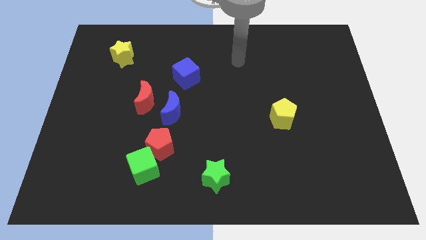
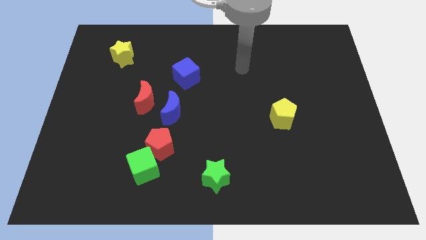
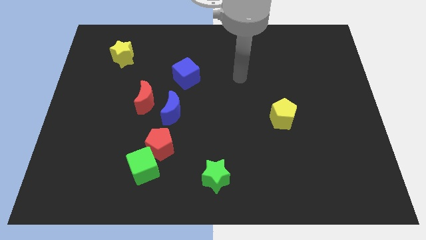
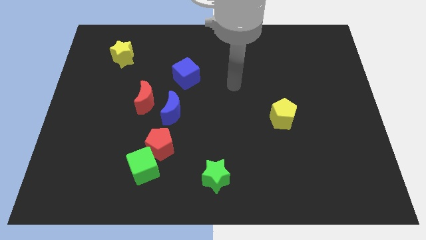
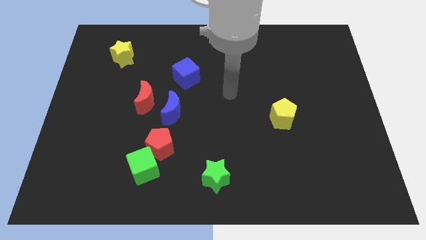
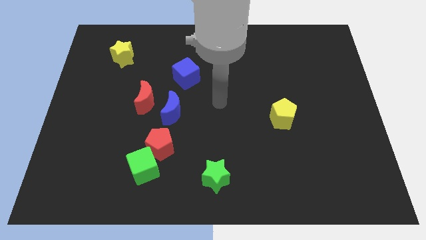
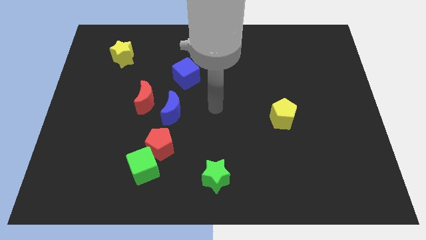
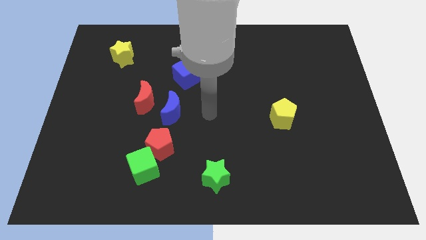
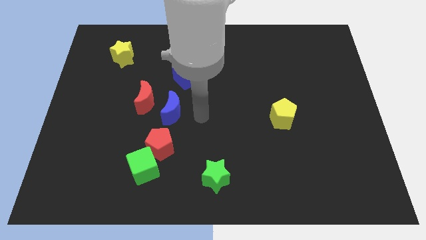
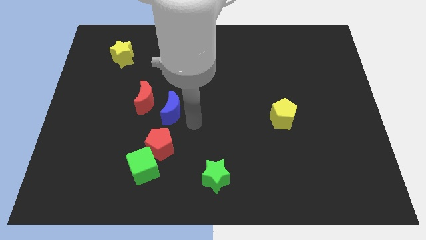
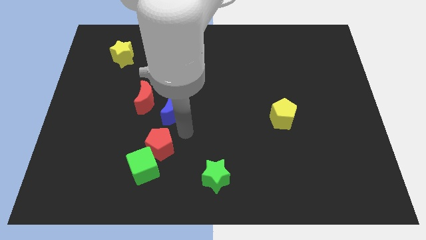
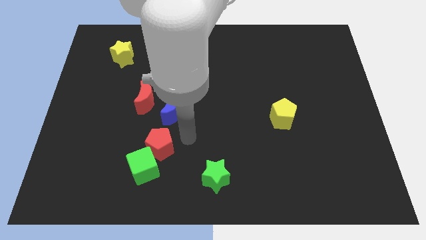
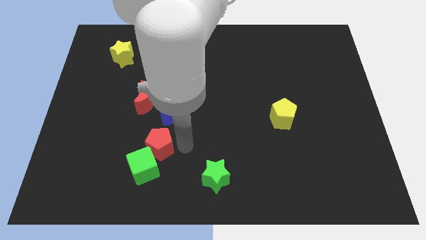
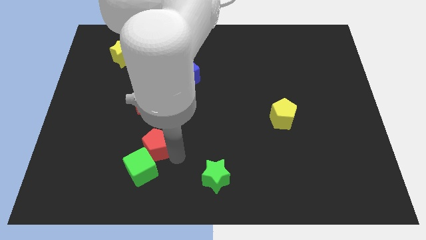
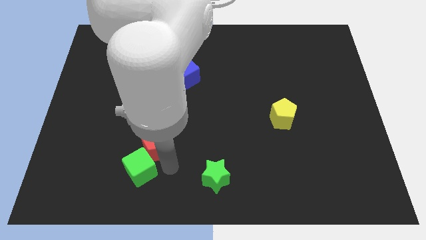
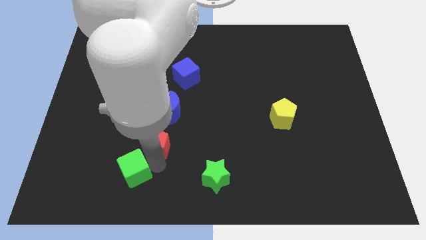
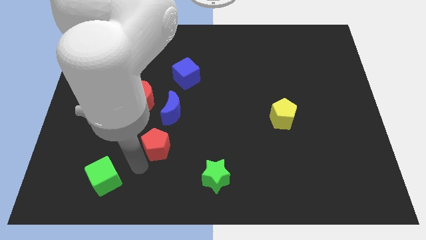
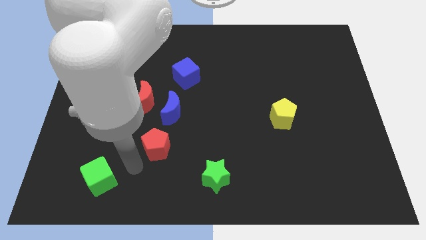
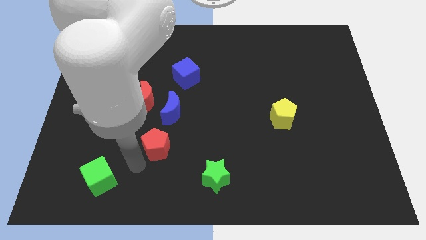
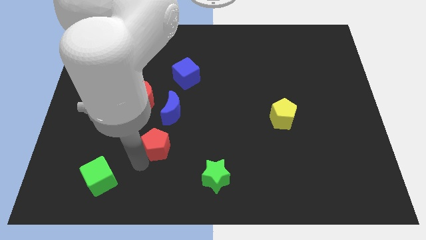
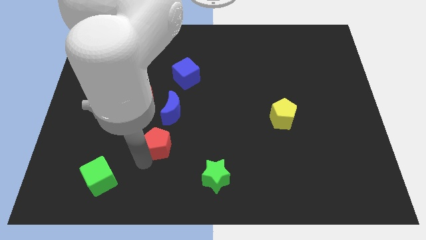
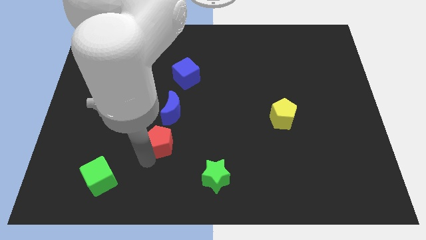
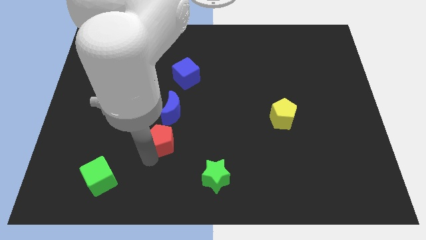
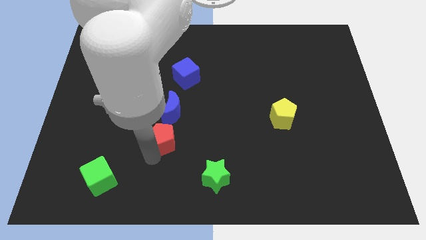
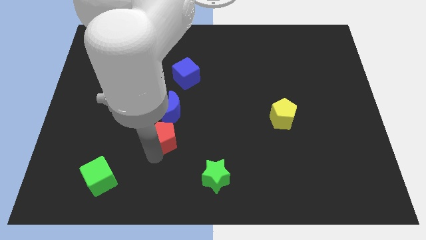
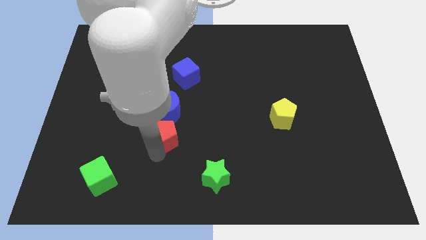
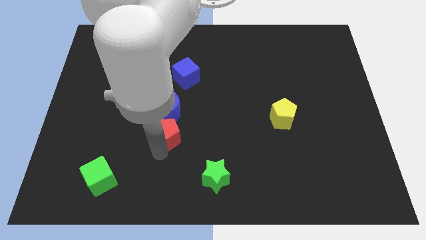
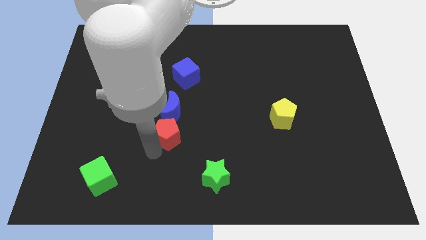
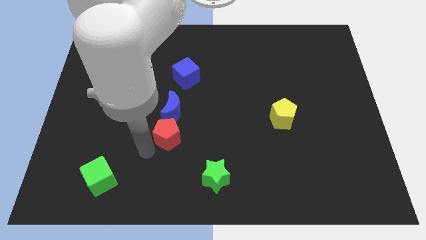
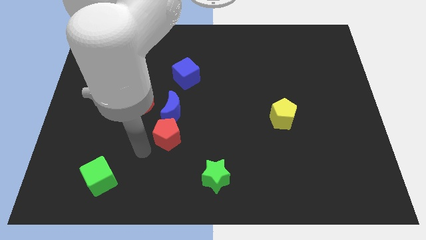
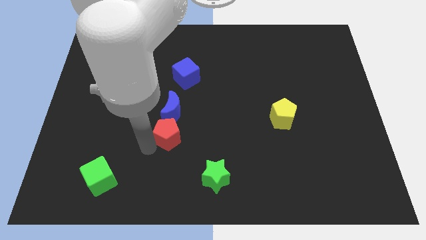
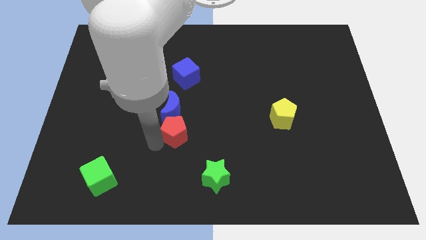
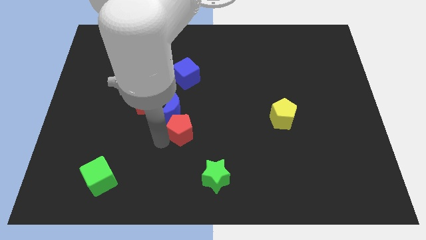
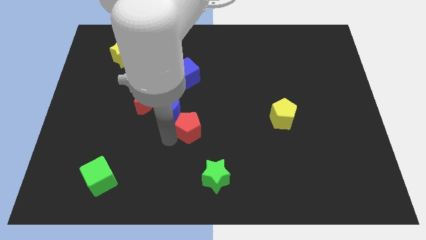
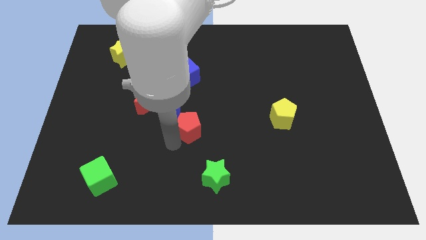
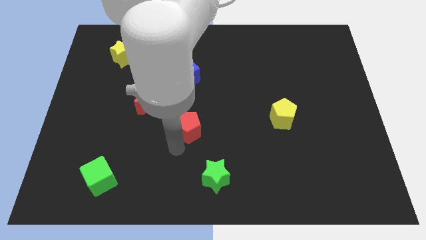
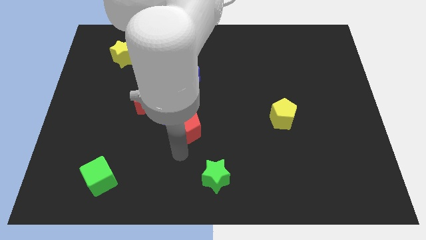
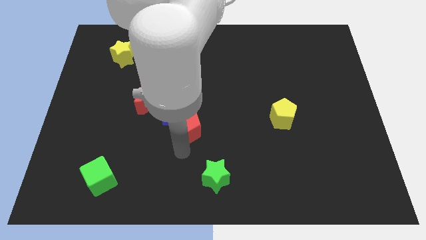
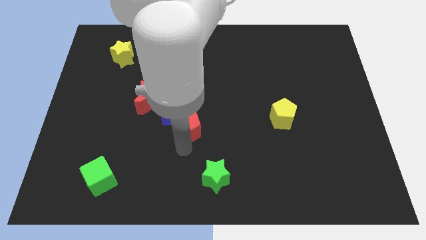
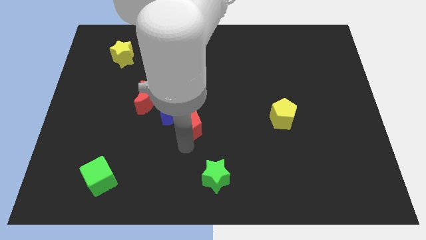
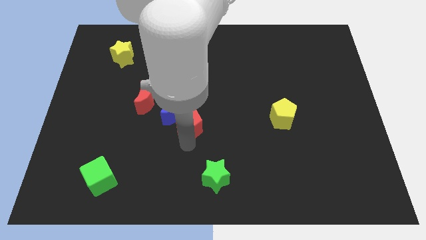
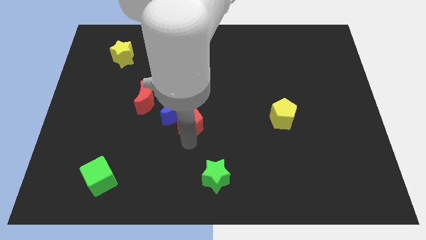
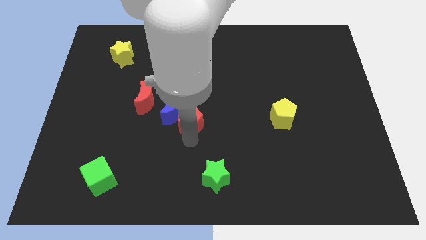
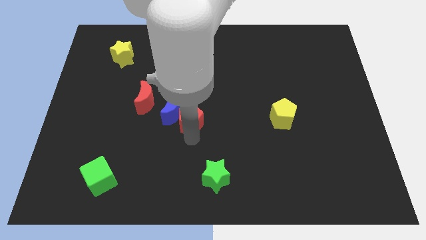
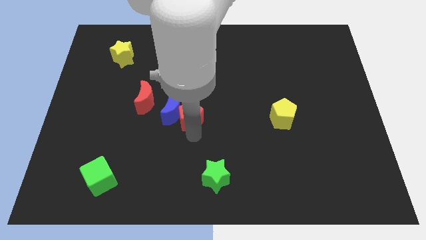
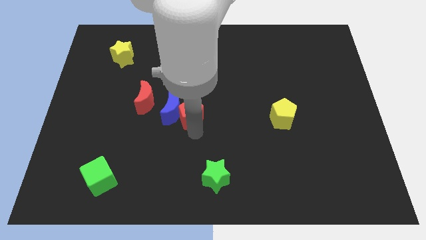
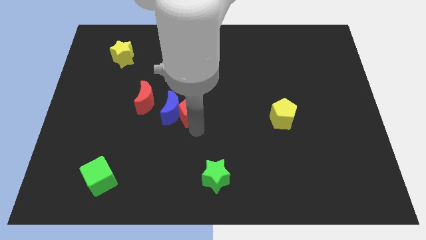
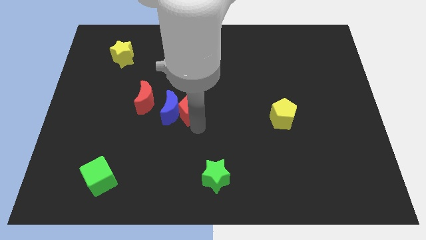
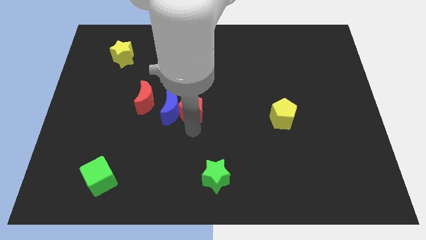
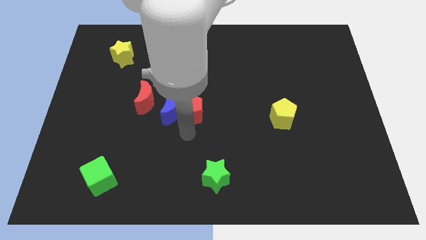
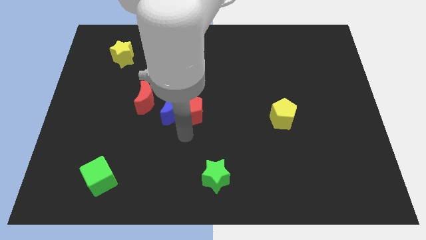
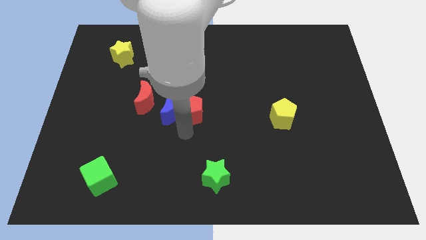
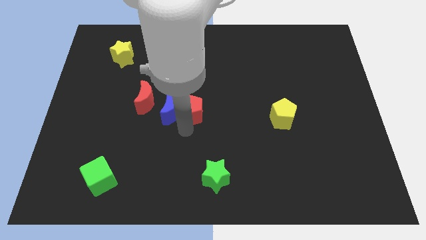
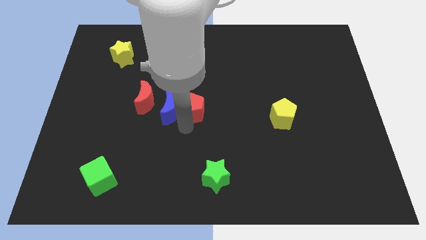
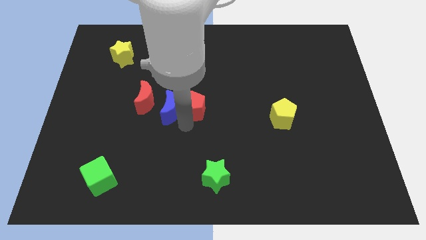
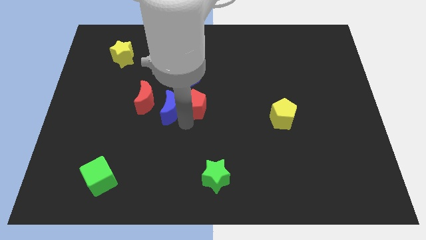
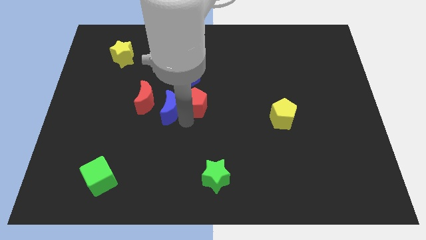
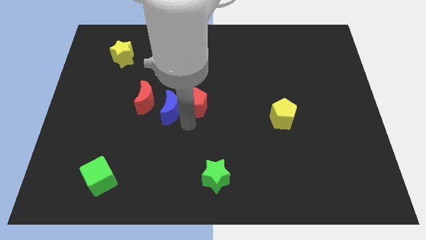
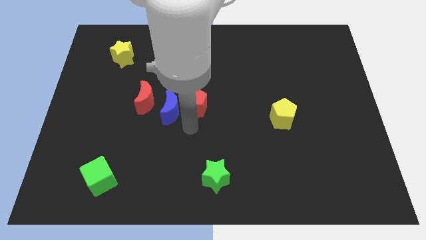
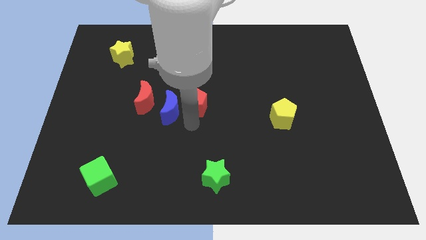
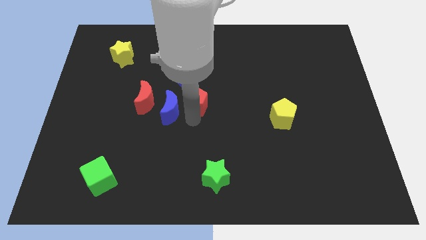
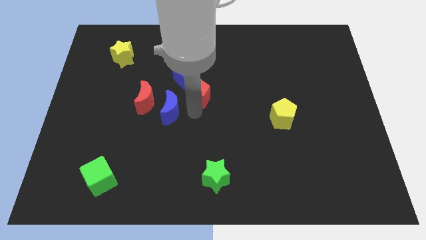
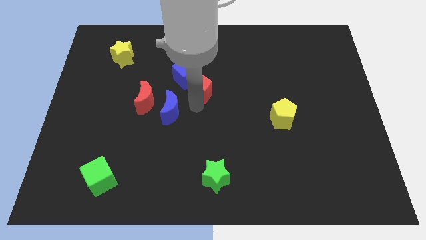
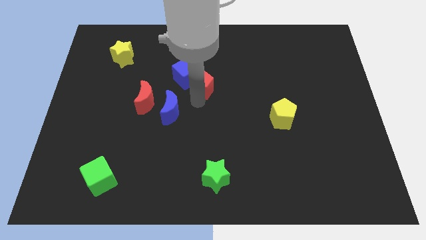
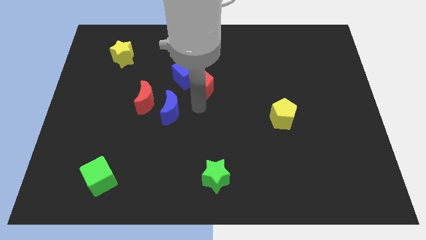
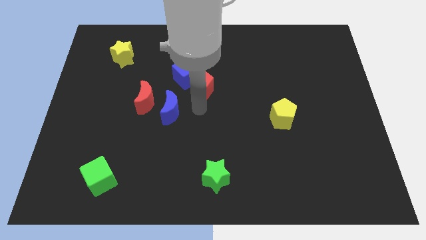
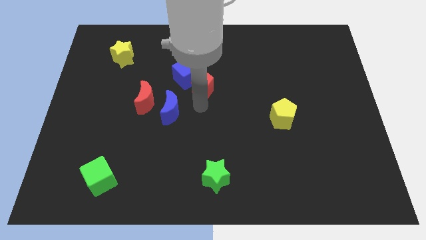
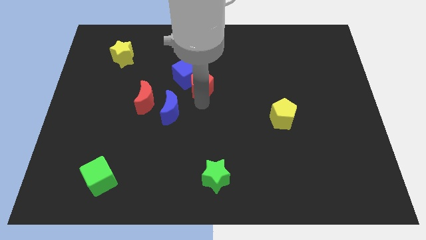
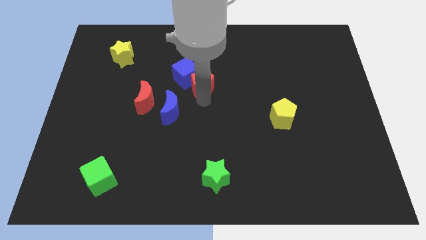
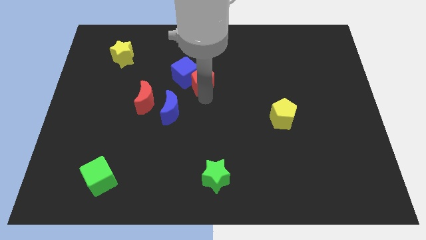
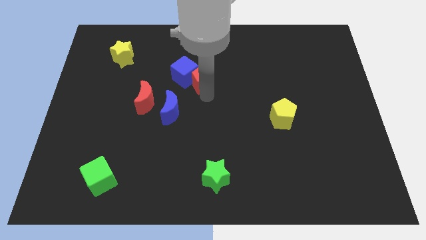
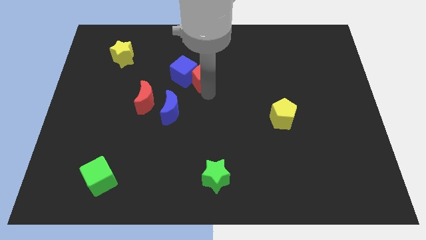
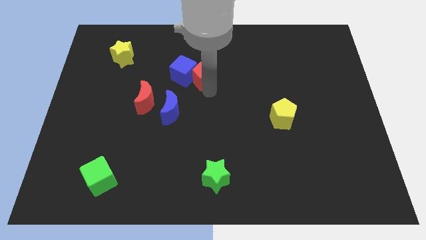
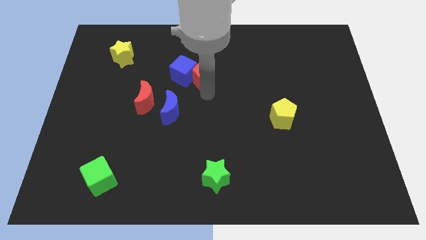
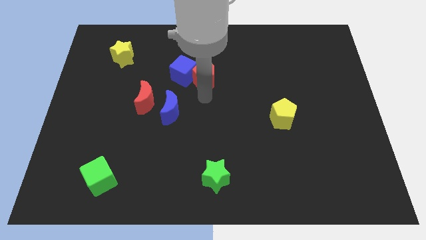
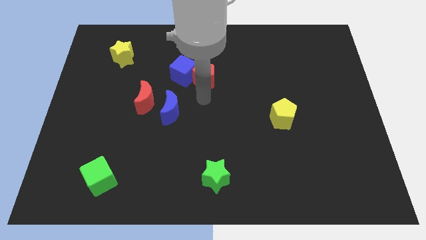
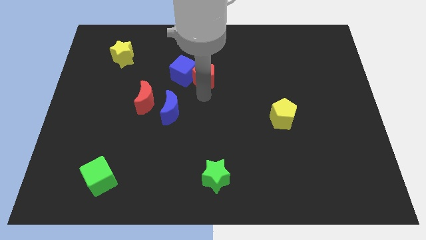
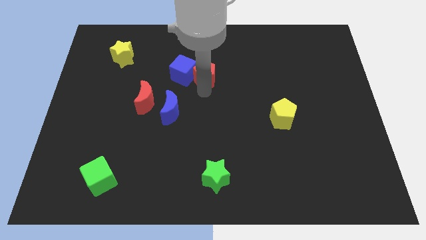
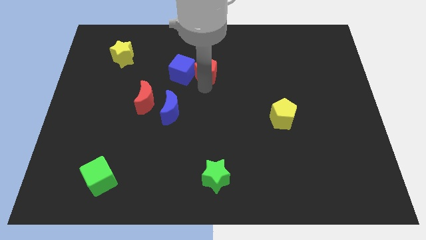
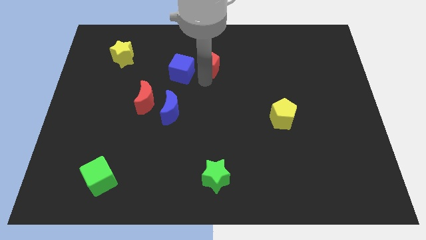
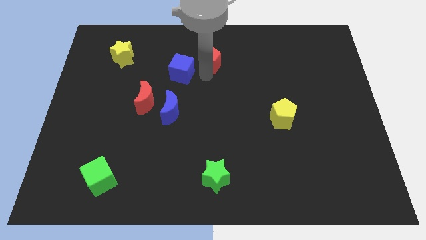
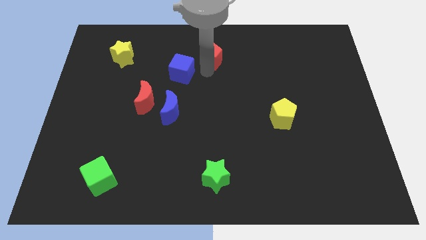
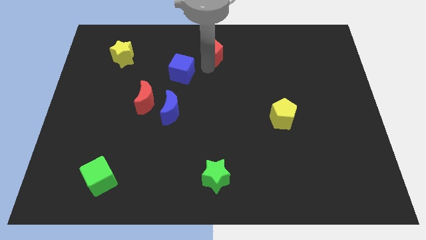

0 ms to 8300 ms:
put the red pentagon to the top
